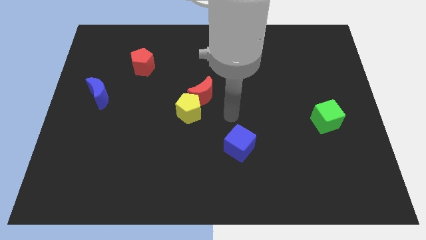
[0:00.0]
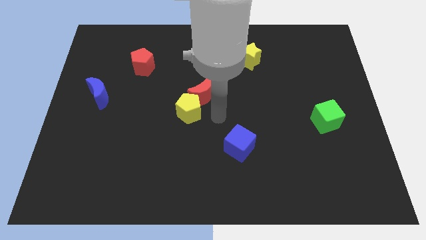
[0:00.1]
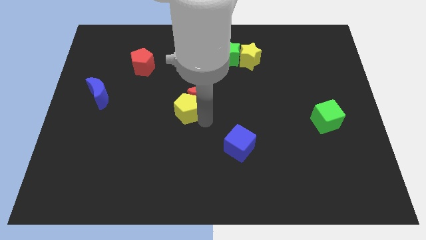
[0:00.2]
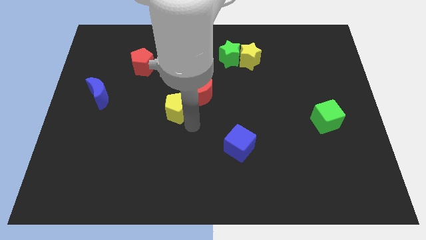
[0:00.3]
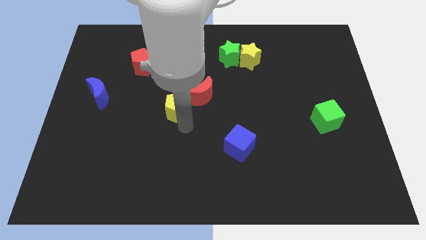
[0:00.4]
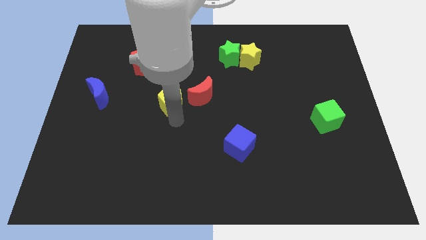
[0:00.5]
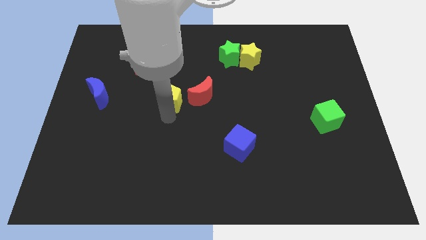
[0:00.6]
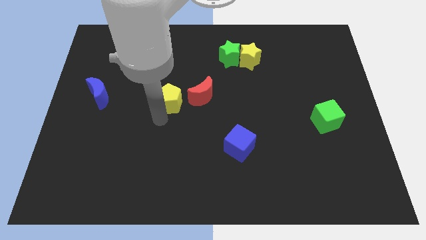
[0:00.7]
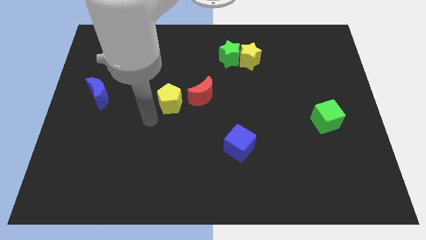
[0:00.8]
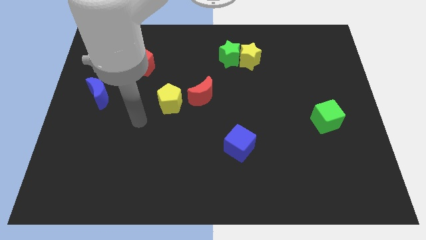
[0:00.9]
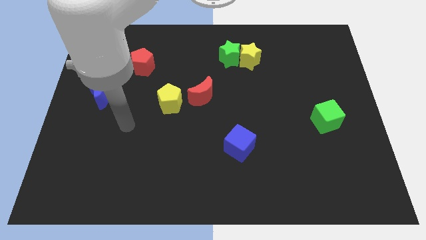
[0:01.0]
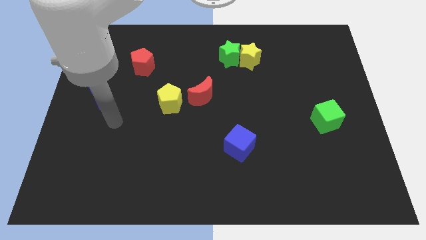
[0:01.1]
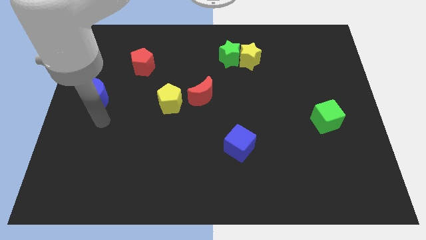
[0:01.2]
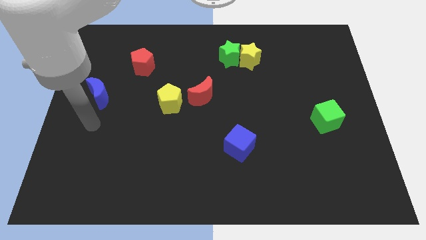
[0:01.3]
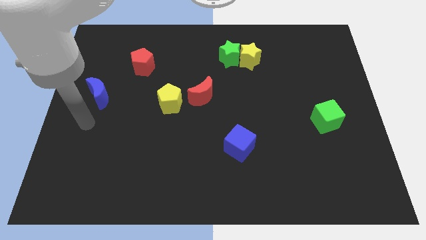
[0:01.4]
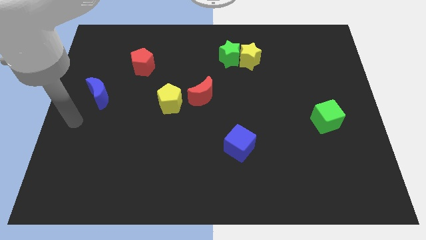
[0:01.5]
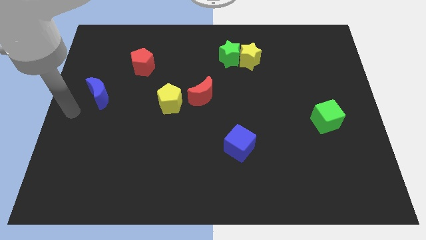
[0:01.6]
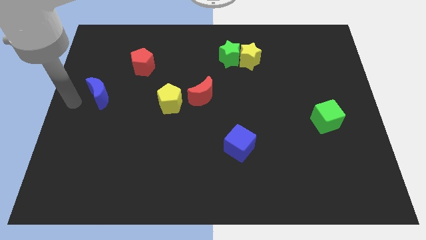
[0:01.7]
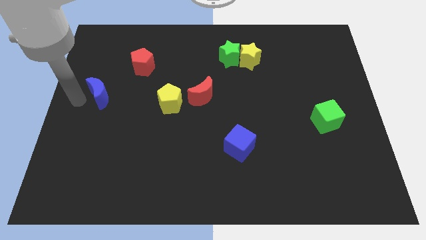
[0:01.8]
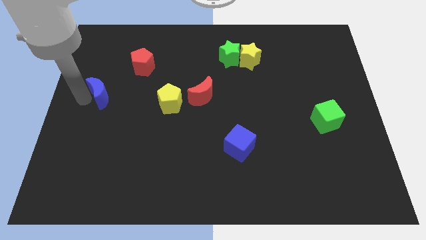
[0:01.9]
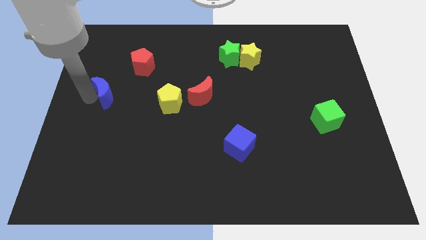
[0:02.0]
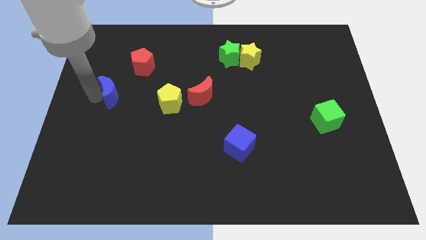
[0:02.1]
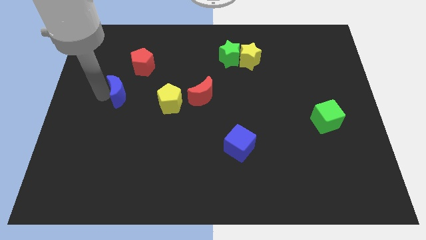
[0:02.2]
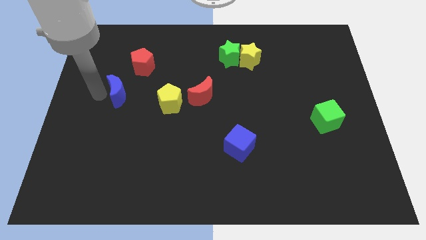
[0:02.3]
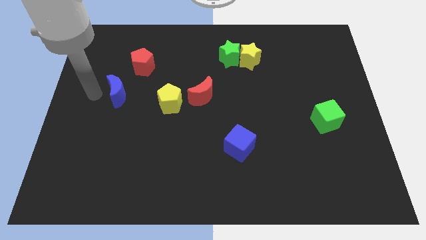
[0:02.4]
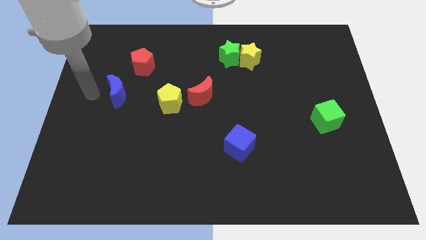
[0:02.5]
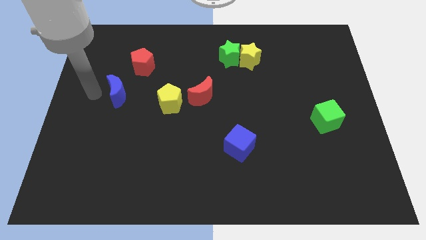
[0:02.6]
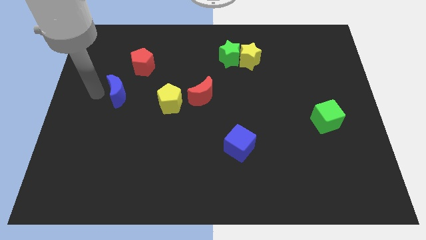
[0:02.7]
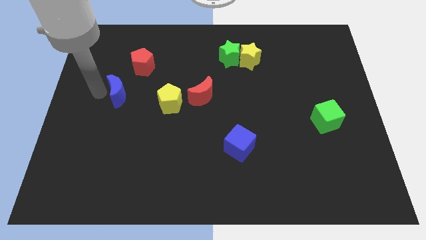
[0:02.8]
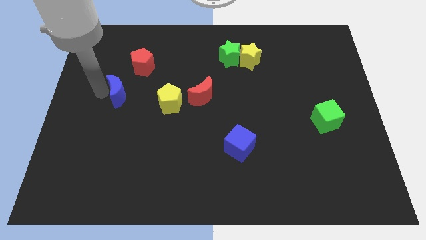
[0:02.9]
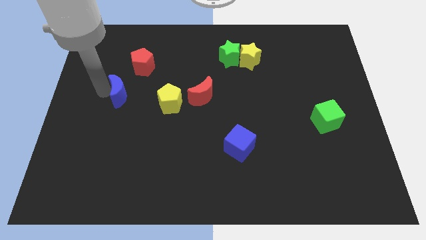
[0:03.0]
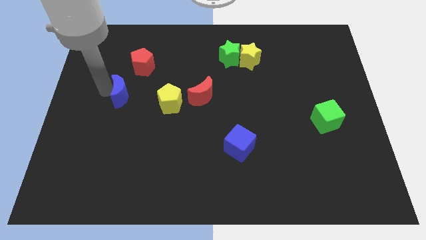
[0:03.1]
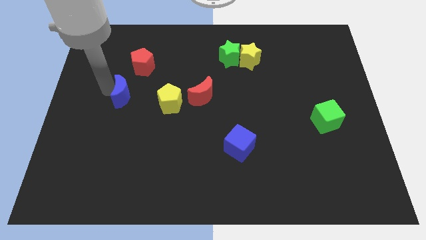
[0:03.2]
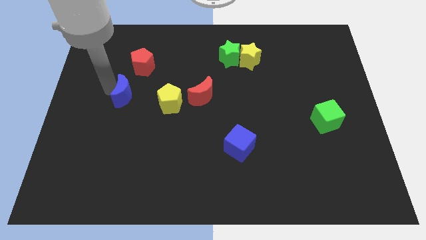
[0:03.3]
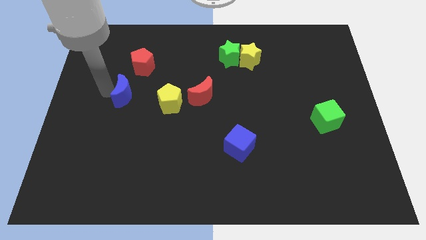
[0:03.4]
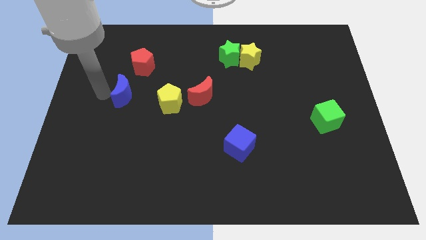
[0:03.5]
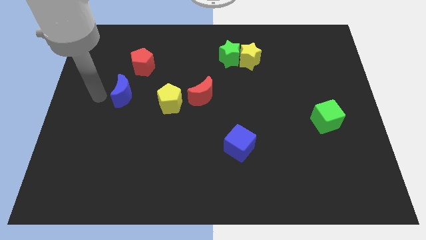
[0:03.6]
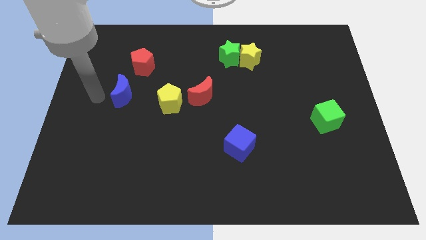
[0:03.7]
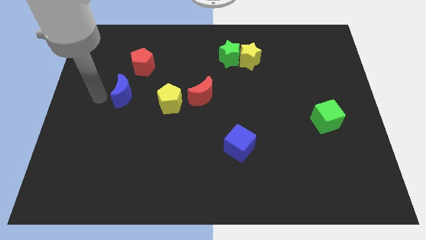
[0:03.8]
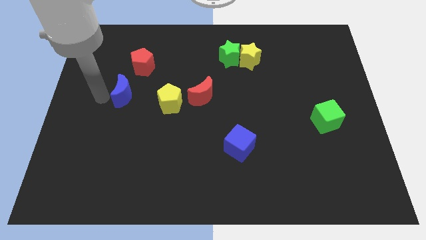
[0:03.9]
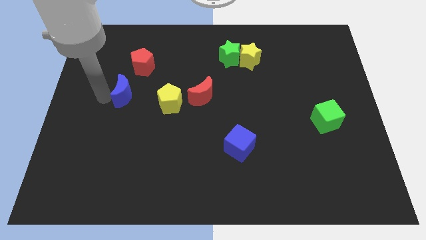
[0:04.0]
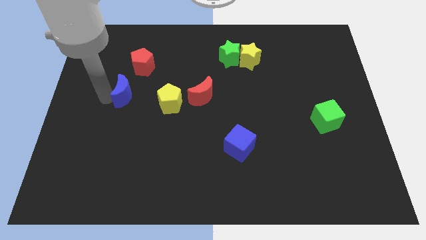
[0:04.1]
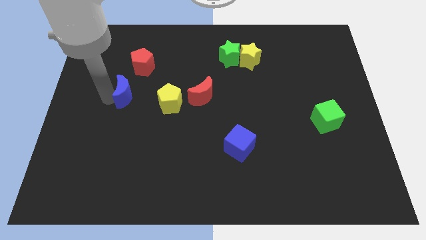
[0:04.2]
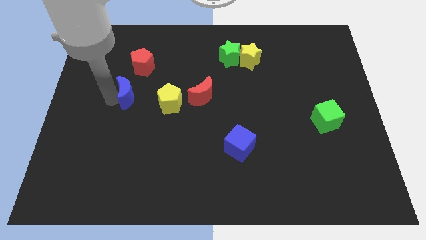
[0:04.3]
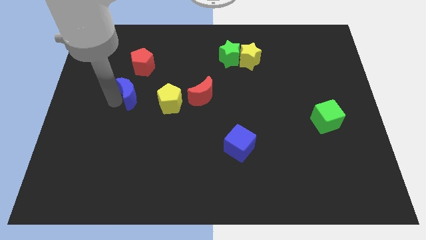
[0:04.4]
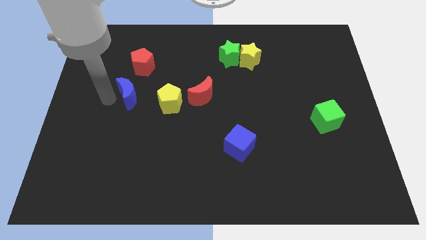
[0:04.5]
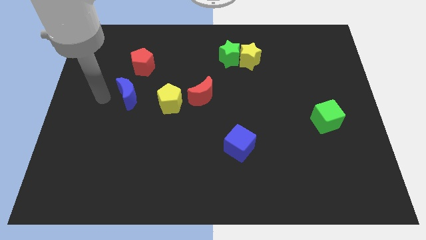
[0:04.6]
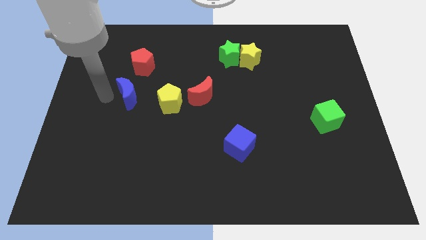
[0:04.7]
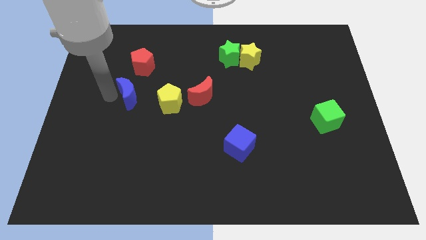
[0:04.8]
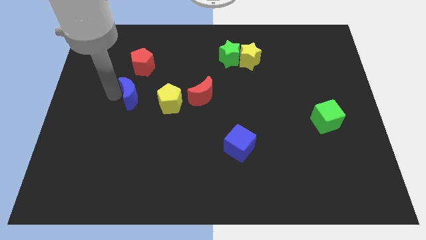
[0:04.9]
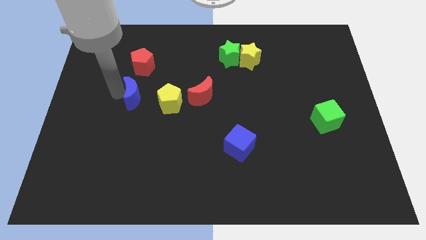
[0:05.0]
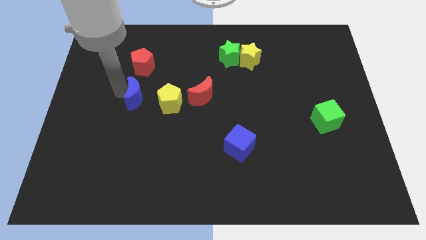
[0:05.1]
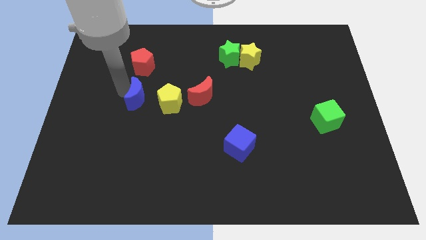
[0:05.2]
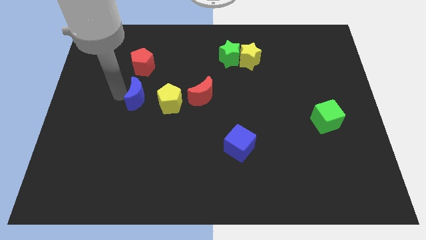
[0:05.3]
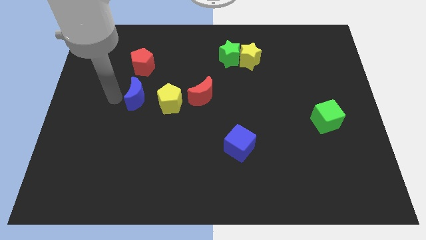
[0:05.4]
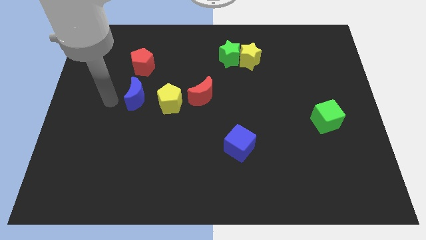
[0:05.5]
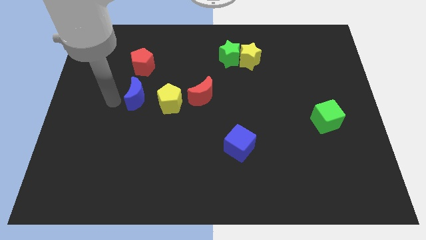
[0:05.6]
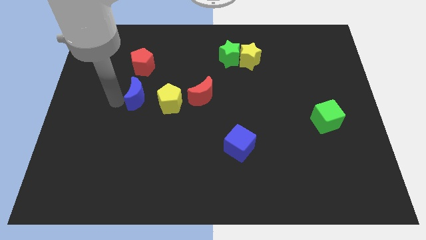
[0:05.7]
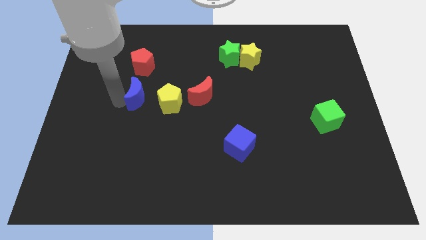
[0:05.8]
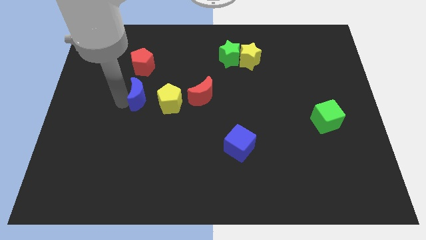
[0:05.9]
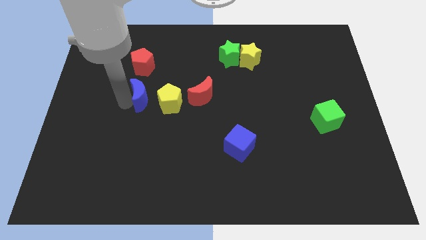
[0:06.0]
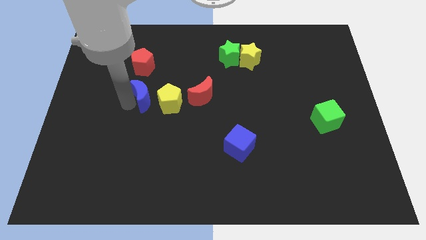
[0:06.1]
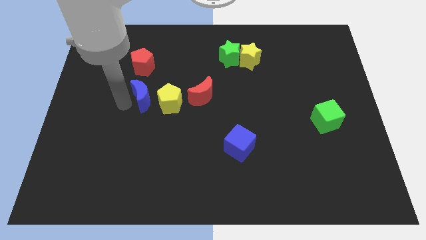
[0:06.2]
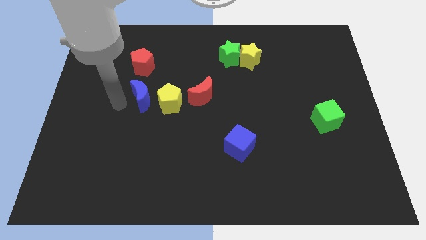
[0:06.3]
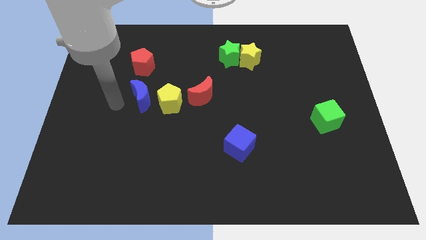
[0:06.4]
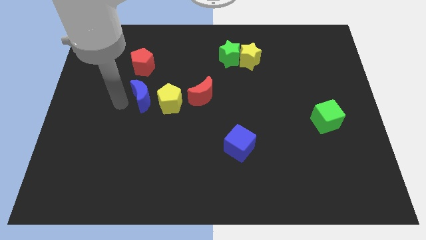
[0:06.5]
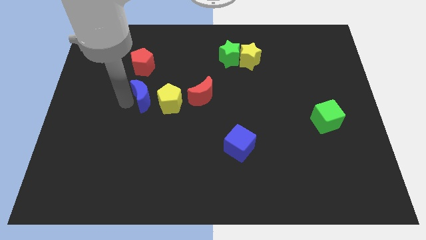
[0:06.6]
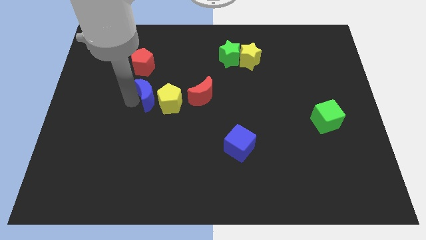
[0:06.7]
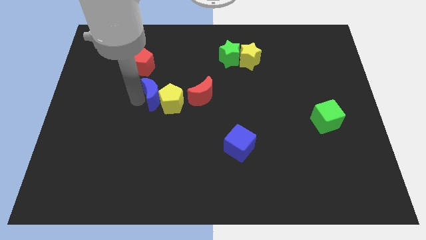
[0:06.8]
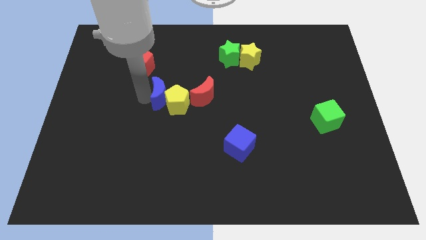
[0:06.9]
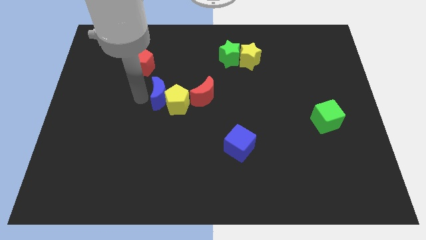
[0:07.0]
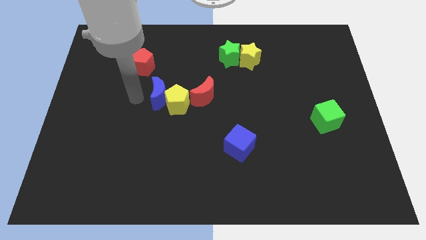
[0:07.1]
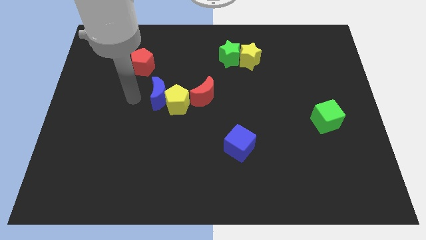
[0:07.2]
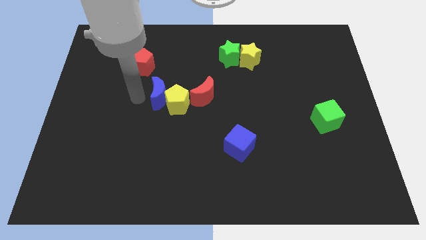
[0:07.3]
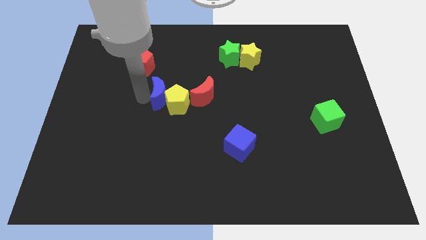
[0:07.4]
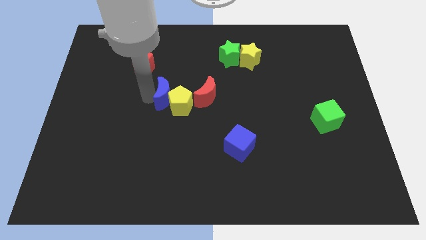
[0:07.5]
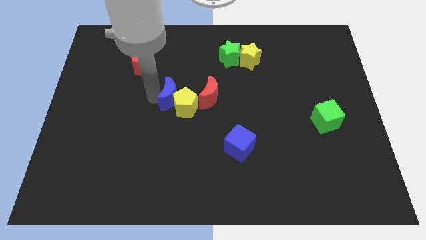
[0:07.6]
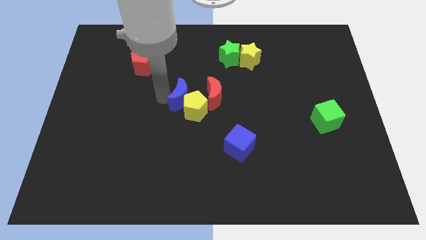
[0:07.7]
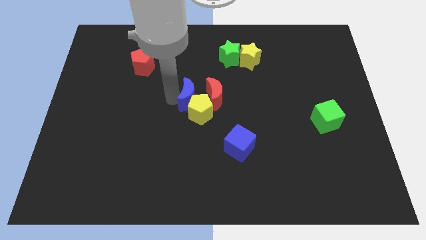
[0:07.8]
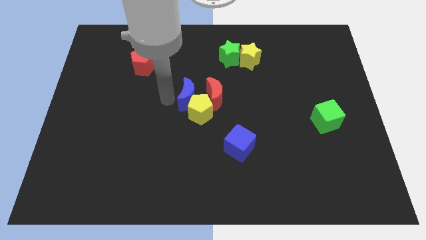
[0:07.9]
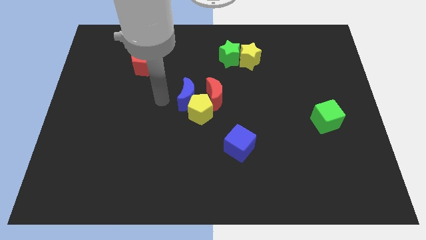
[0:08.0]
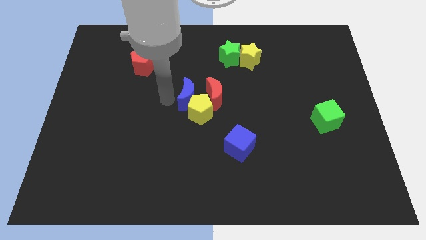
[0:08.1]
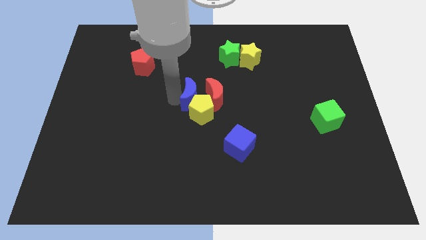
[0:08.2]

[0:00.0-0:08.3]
slide the blue moon to the red moon
